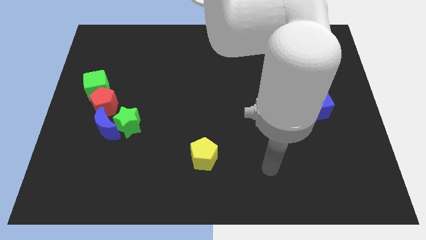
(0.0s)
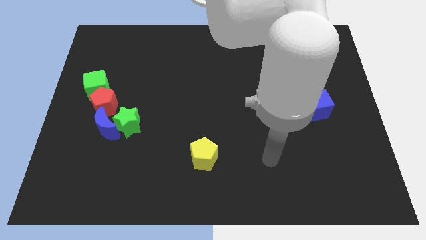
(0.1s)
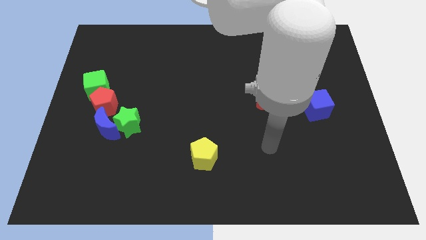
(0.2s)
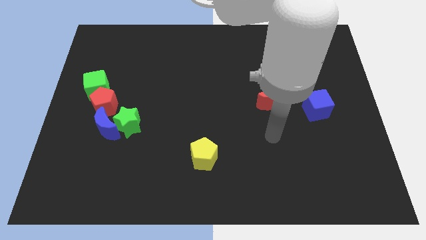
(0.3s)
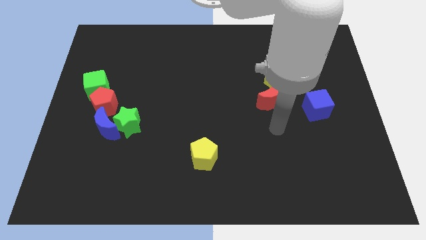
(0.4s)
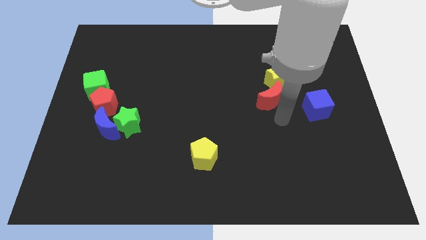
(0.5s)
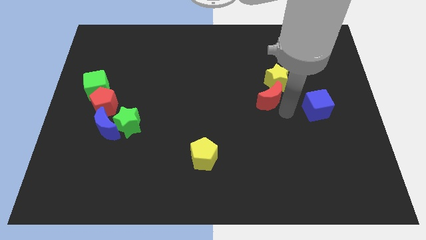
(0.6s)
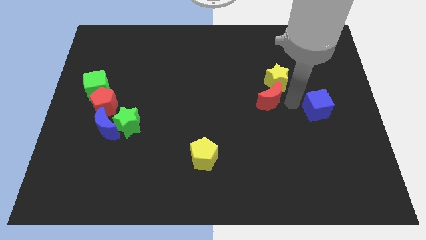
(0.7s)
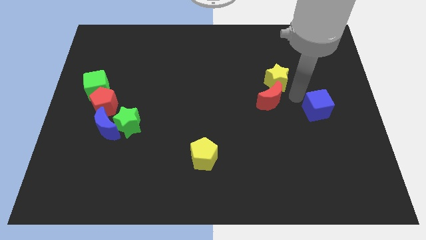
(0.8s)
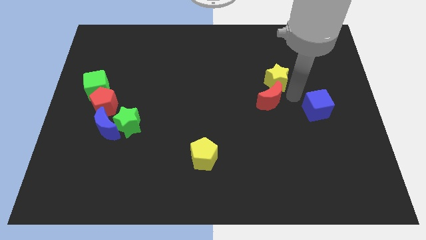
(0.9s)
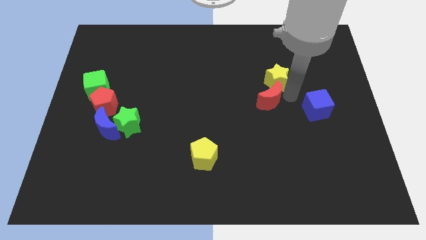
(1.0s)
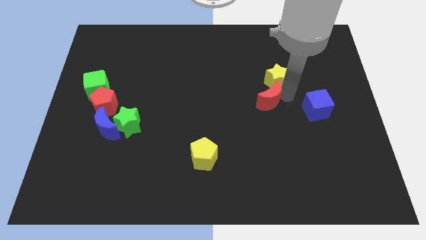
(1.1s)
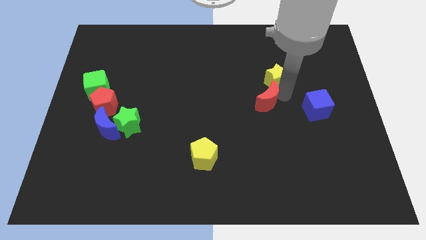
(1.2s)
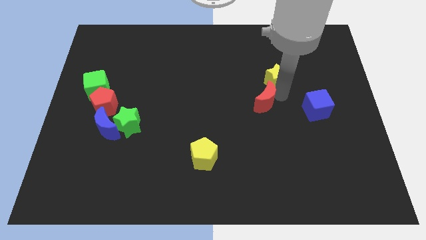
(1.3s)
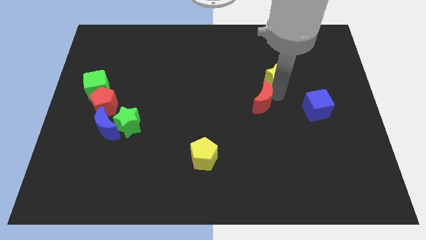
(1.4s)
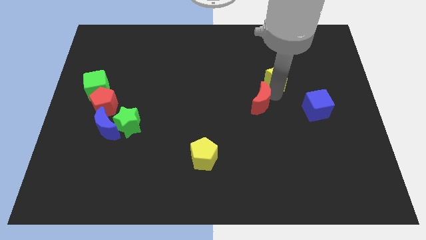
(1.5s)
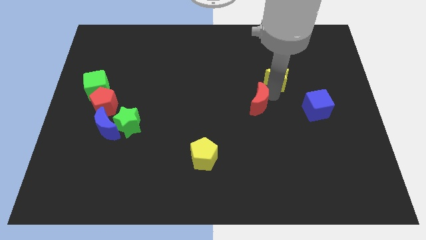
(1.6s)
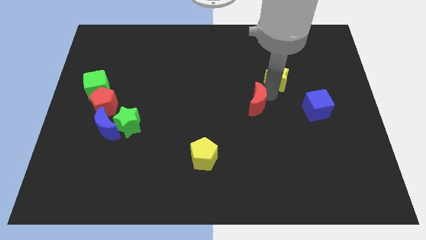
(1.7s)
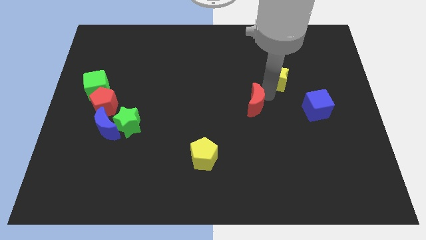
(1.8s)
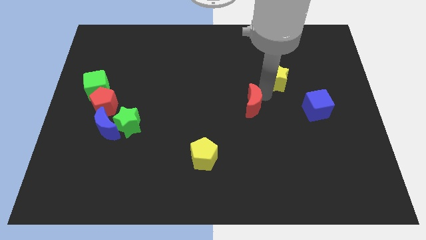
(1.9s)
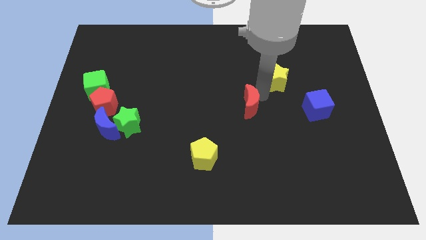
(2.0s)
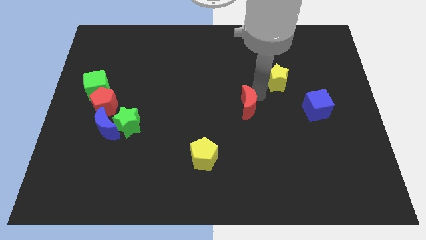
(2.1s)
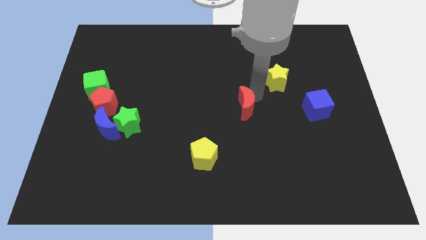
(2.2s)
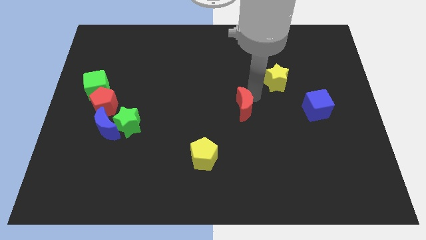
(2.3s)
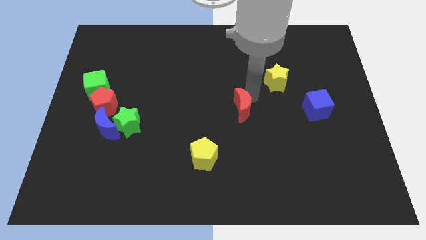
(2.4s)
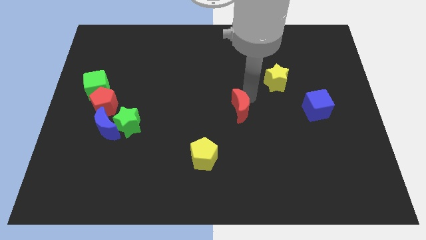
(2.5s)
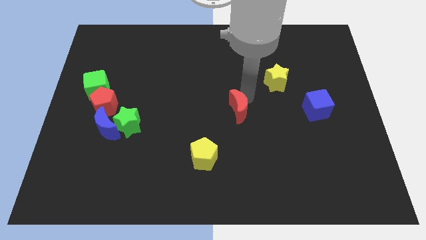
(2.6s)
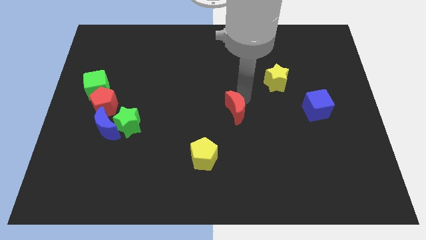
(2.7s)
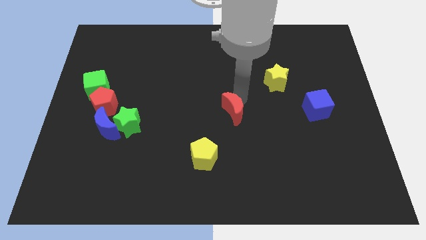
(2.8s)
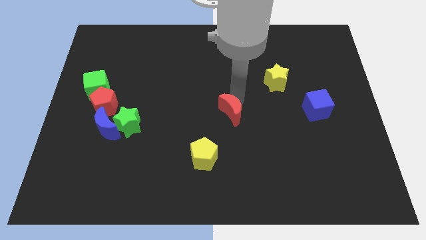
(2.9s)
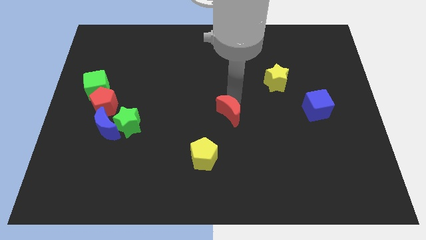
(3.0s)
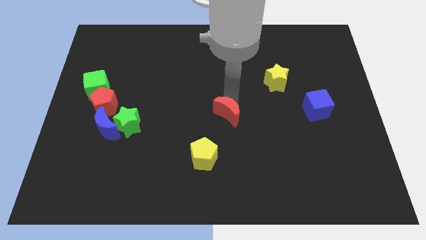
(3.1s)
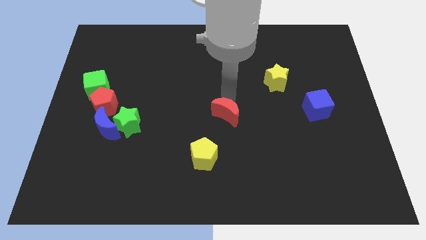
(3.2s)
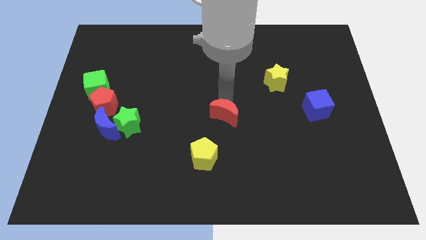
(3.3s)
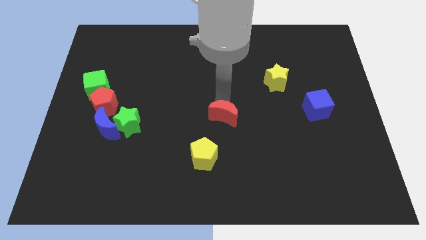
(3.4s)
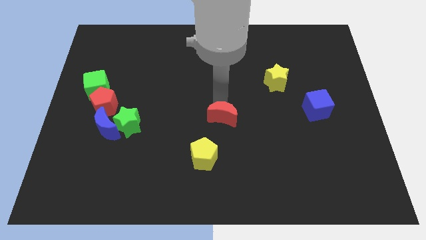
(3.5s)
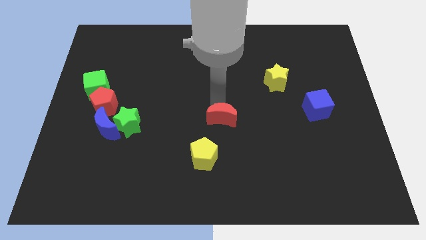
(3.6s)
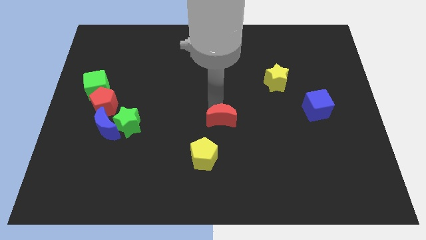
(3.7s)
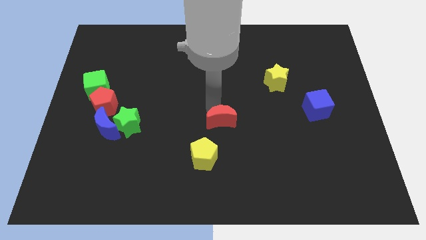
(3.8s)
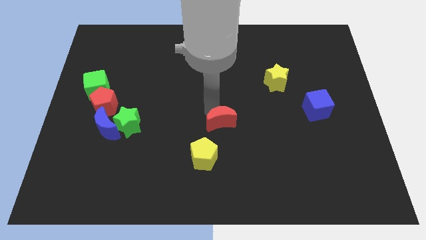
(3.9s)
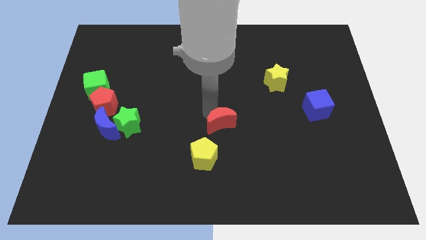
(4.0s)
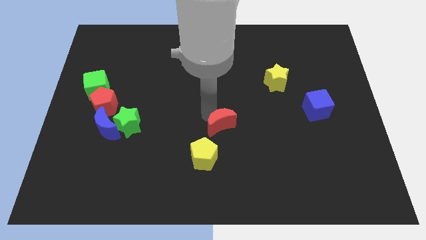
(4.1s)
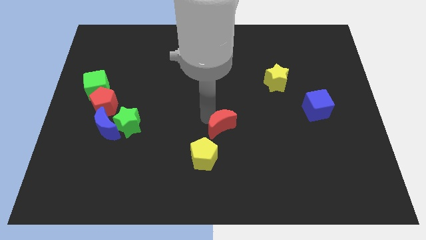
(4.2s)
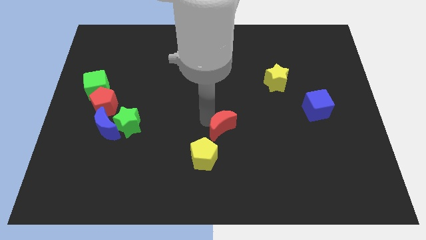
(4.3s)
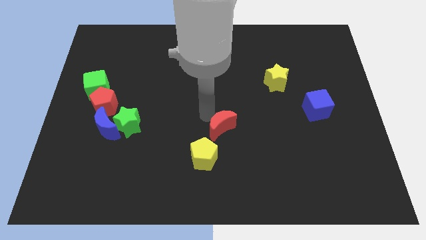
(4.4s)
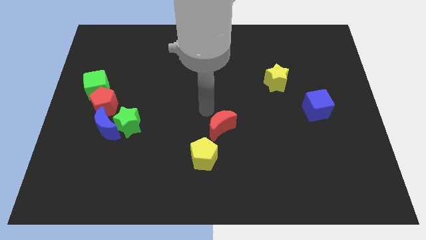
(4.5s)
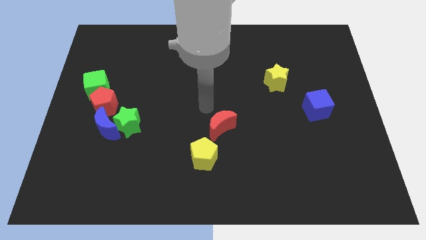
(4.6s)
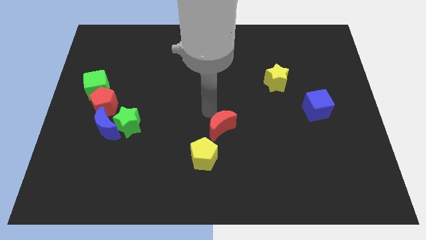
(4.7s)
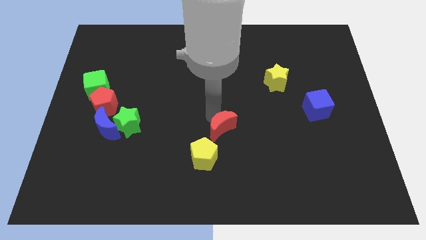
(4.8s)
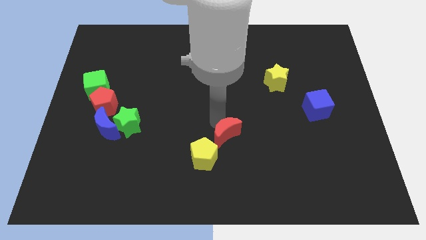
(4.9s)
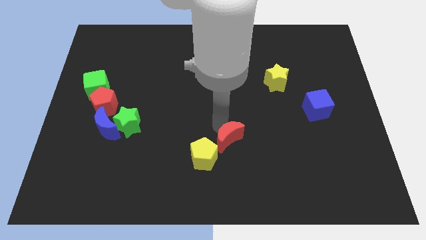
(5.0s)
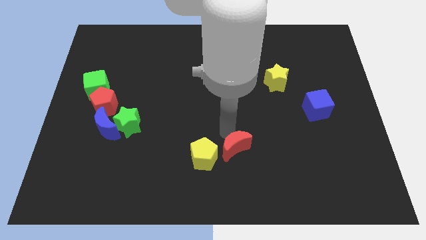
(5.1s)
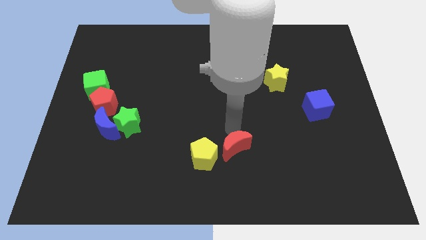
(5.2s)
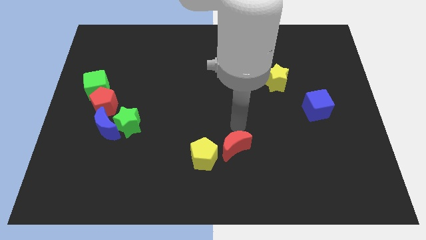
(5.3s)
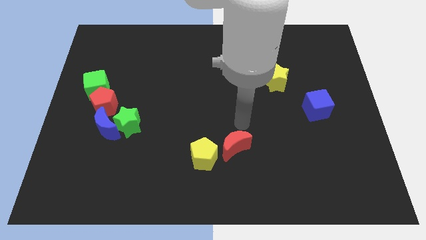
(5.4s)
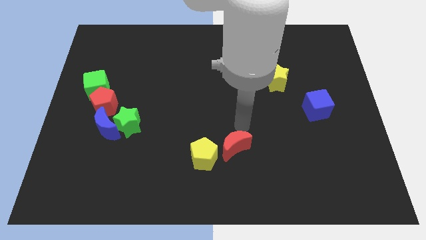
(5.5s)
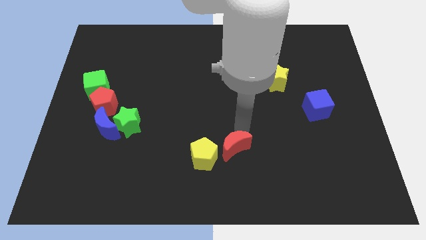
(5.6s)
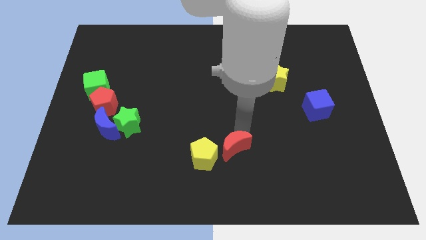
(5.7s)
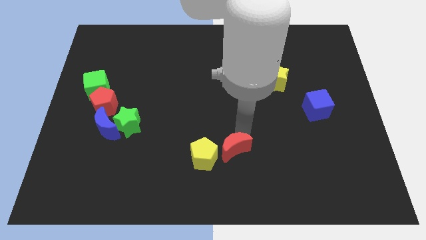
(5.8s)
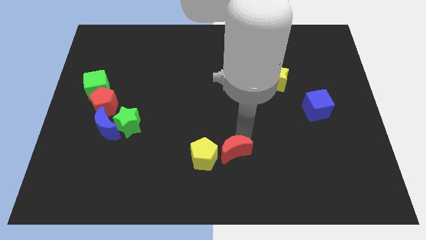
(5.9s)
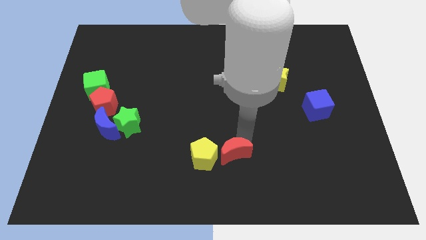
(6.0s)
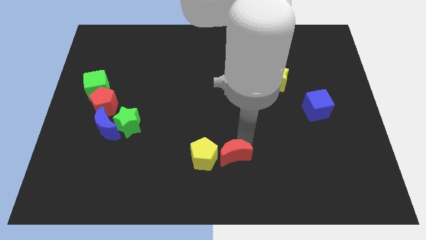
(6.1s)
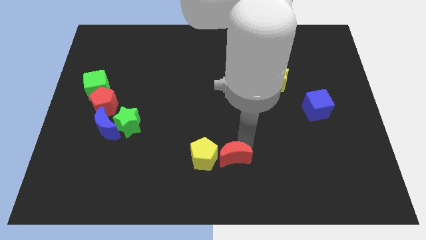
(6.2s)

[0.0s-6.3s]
put the red moon to the bottom
